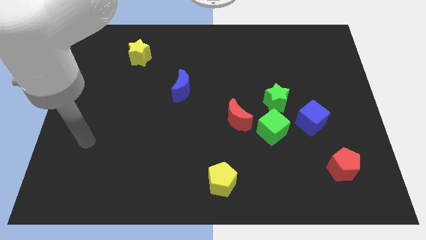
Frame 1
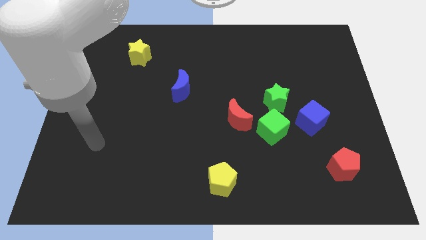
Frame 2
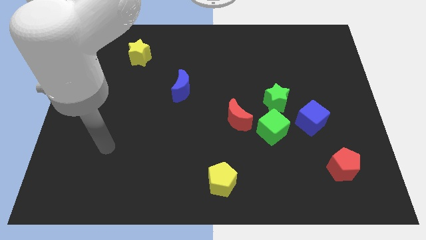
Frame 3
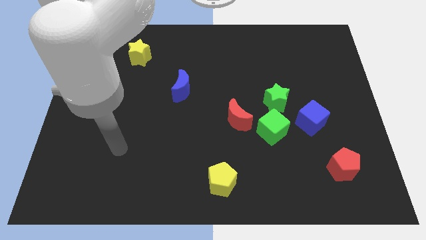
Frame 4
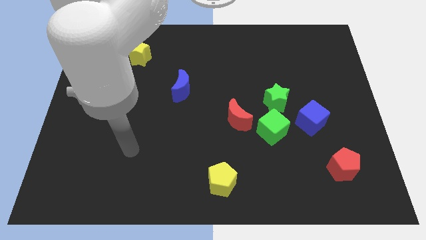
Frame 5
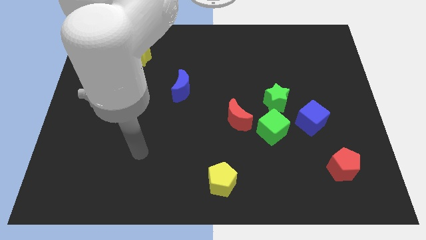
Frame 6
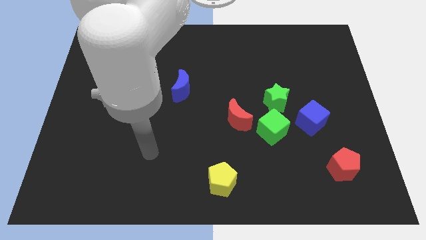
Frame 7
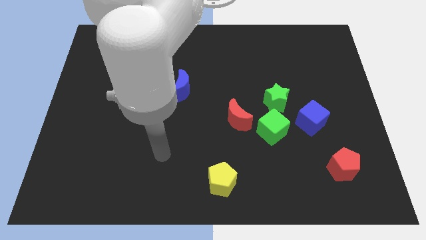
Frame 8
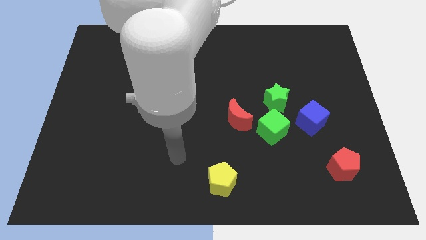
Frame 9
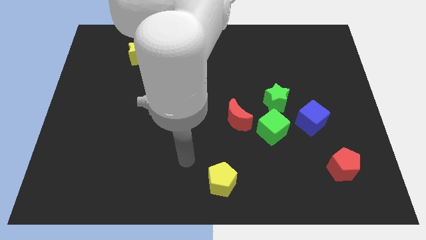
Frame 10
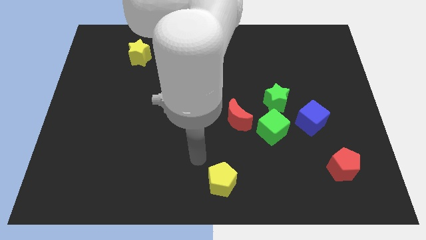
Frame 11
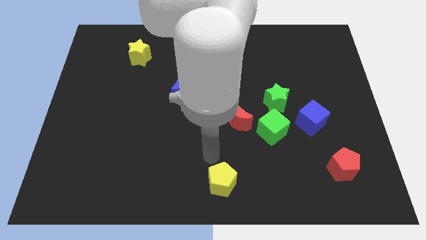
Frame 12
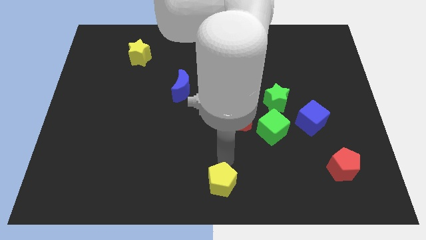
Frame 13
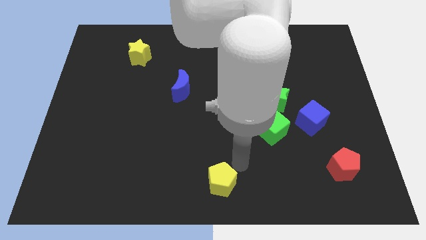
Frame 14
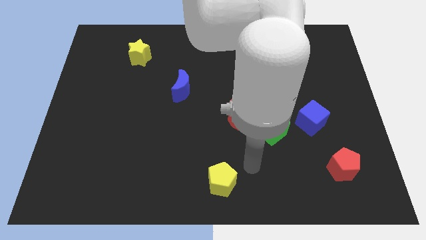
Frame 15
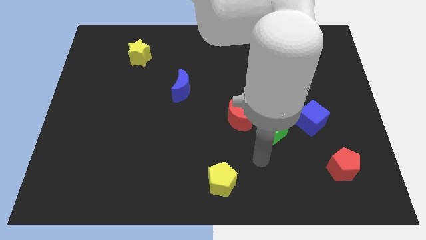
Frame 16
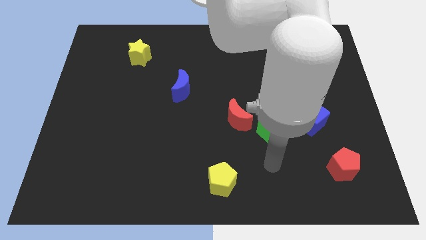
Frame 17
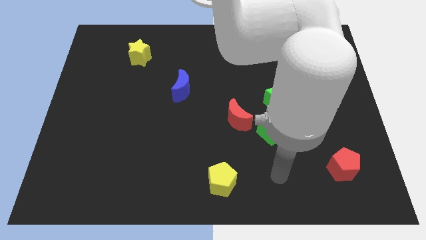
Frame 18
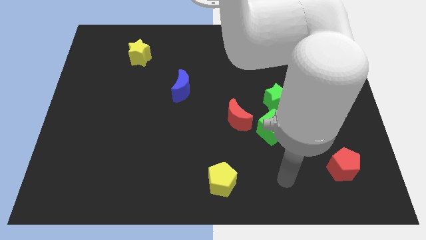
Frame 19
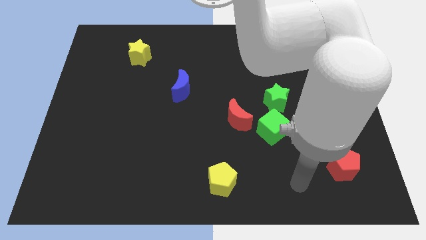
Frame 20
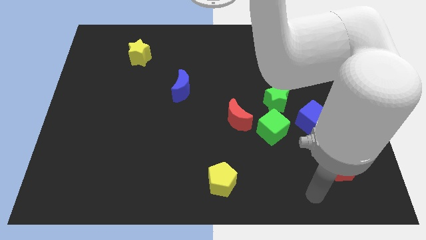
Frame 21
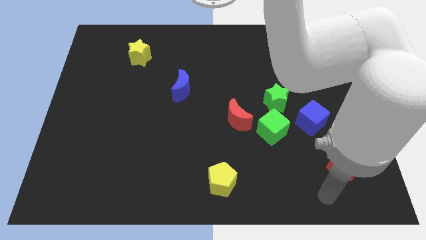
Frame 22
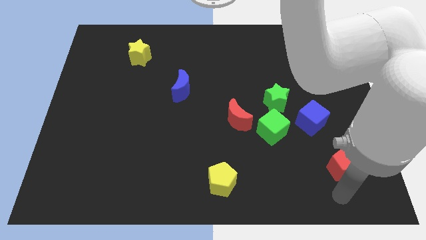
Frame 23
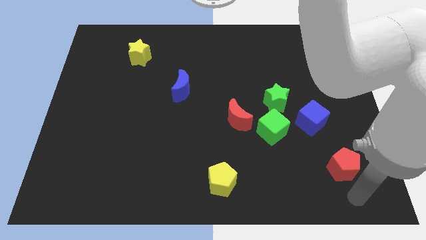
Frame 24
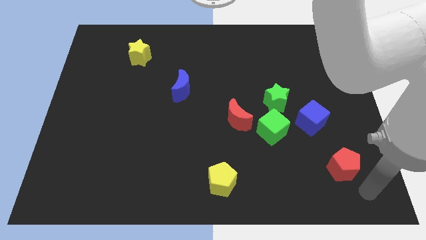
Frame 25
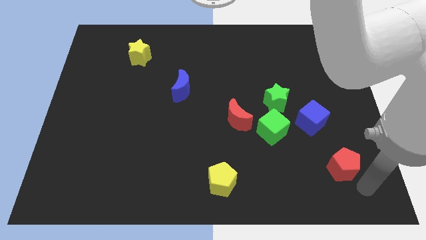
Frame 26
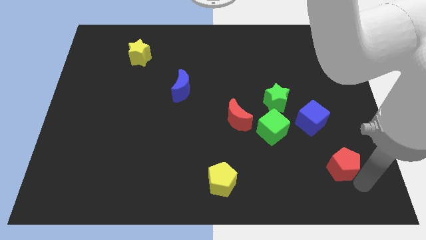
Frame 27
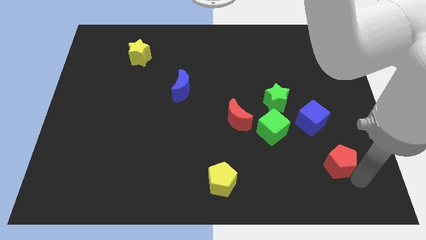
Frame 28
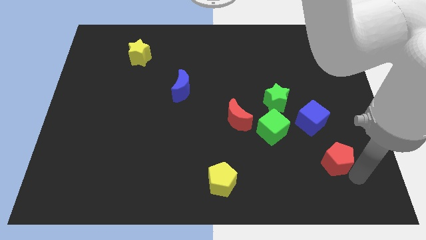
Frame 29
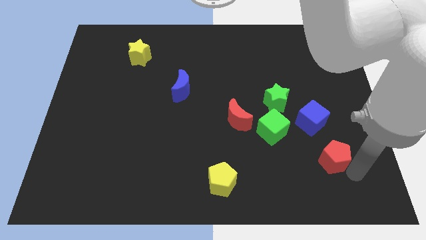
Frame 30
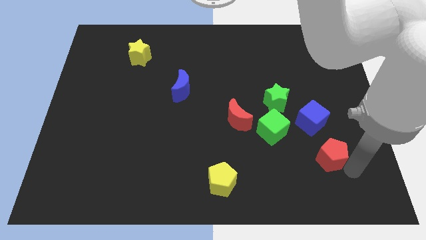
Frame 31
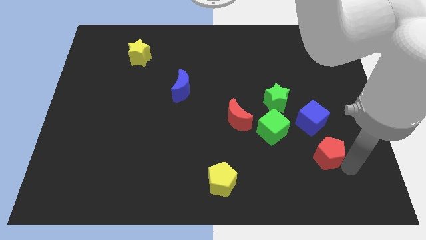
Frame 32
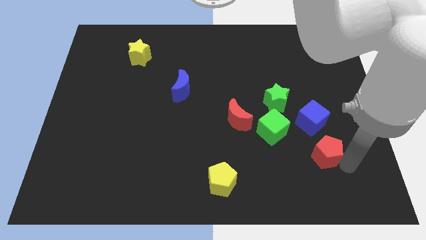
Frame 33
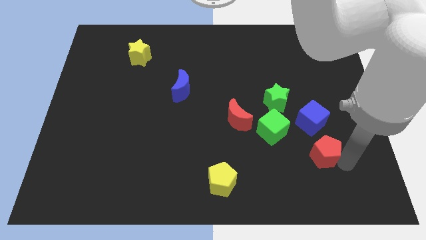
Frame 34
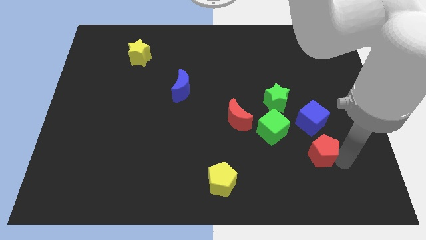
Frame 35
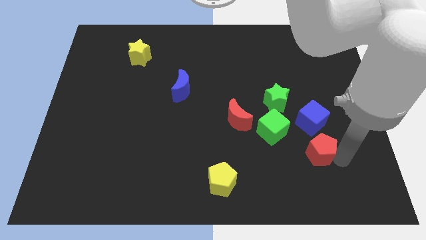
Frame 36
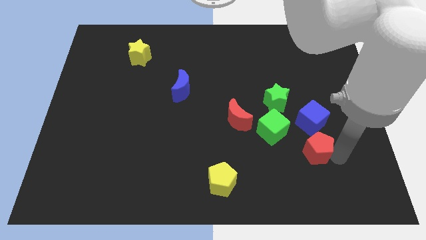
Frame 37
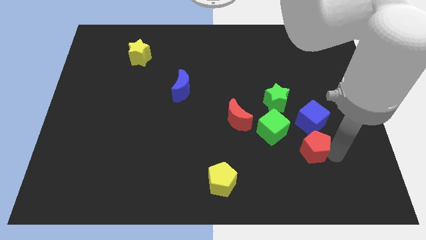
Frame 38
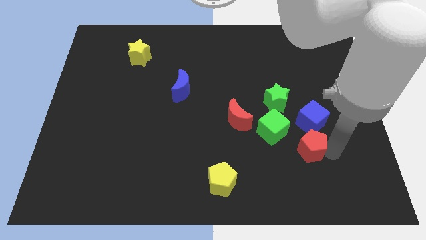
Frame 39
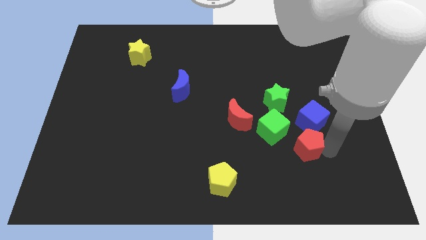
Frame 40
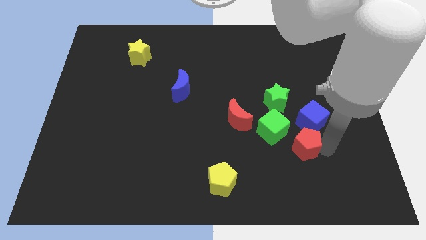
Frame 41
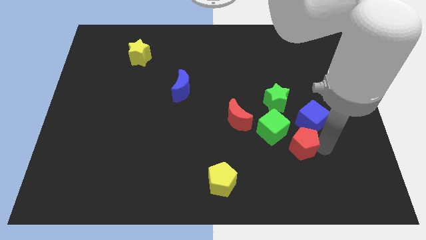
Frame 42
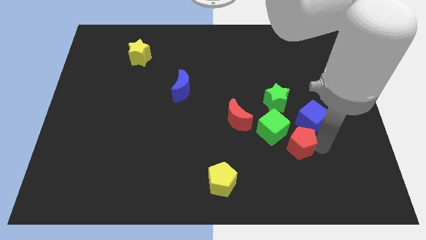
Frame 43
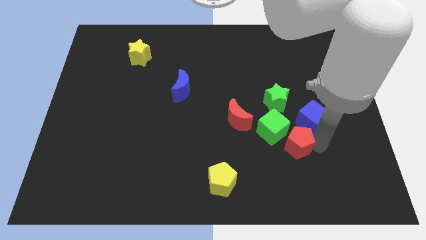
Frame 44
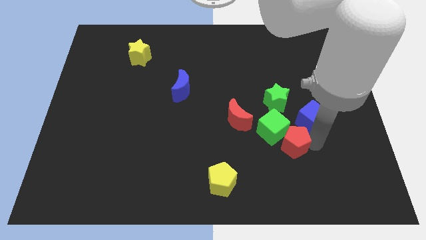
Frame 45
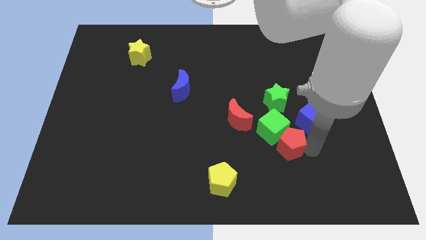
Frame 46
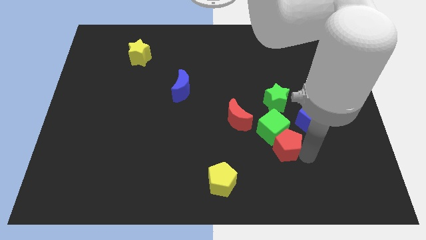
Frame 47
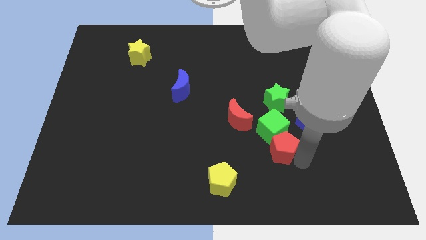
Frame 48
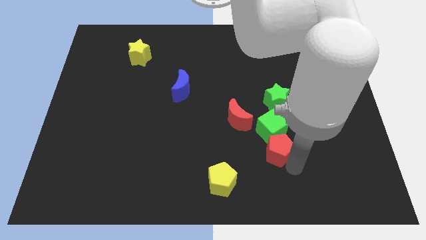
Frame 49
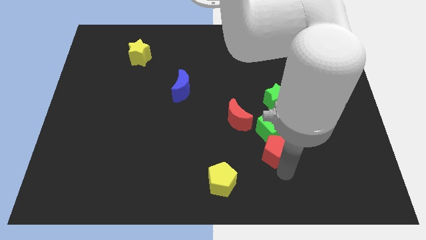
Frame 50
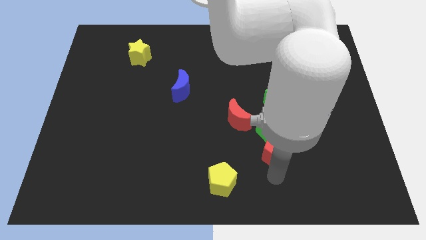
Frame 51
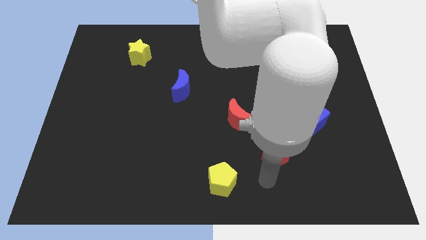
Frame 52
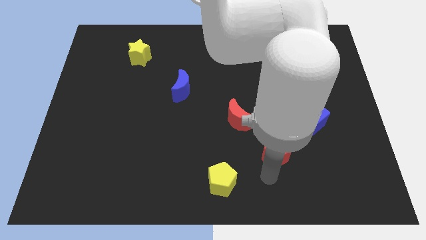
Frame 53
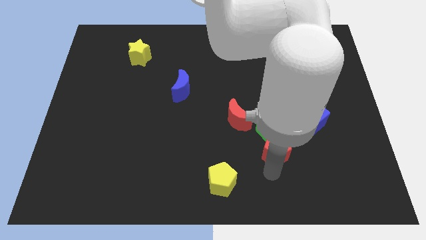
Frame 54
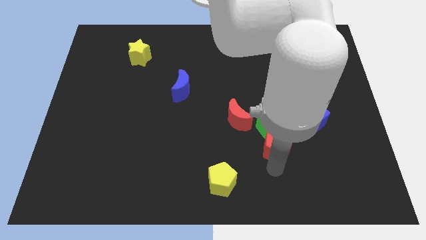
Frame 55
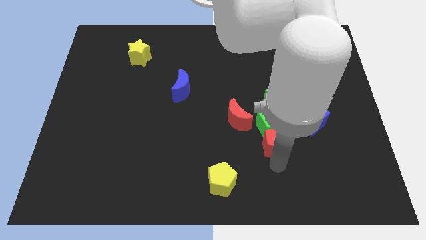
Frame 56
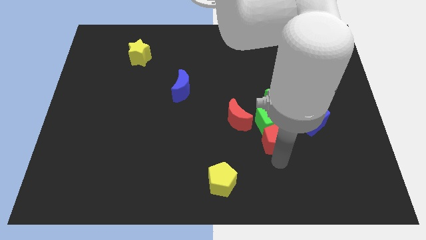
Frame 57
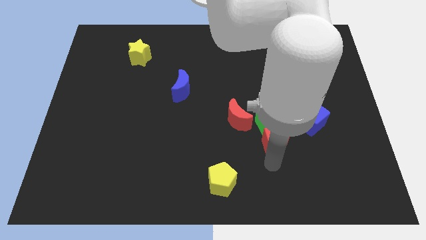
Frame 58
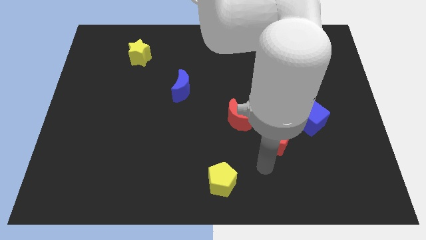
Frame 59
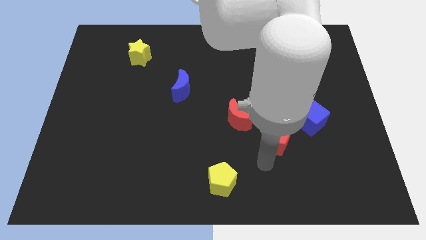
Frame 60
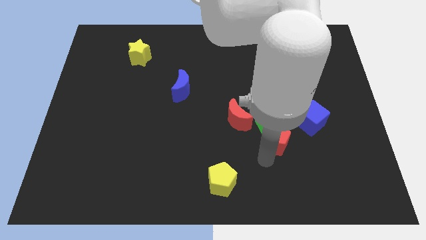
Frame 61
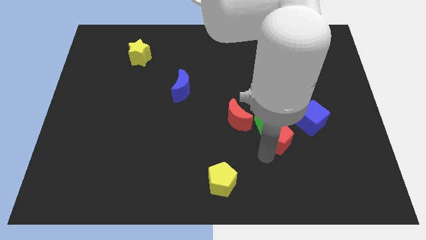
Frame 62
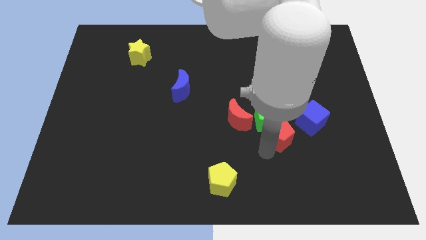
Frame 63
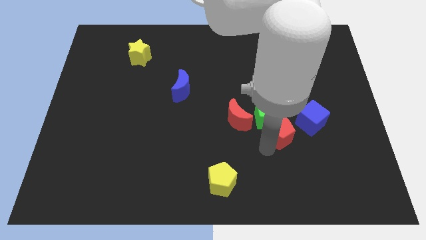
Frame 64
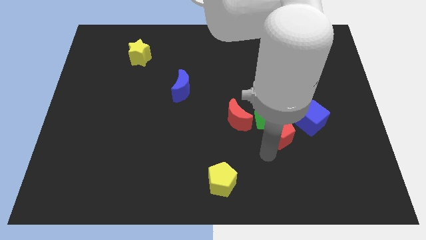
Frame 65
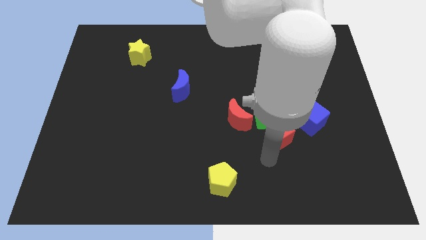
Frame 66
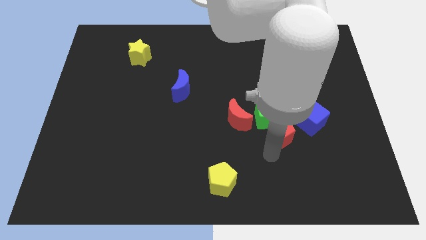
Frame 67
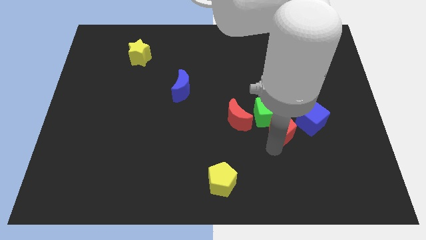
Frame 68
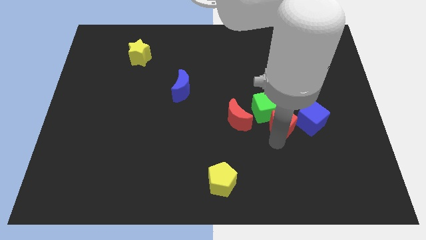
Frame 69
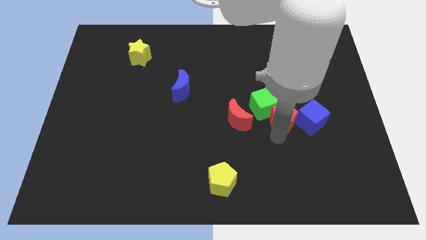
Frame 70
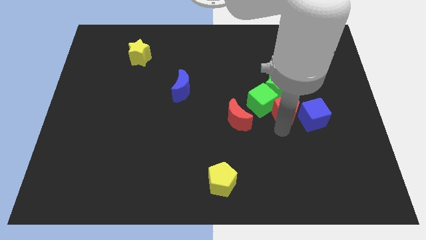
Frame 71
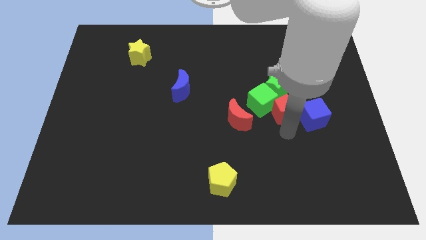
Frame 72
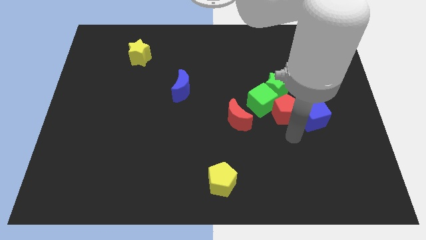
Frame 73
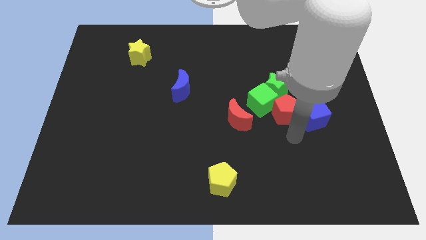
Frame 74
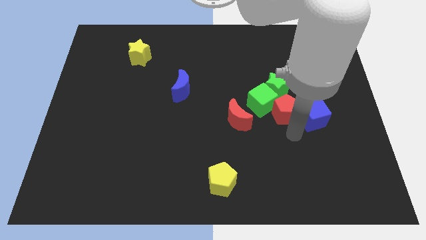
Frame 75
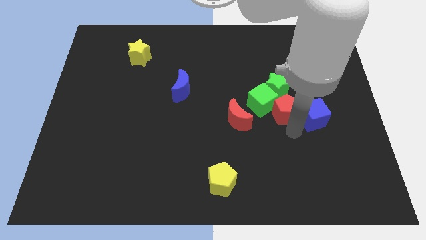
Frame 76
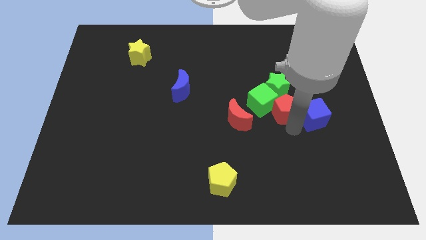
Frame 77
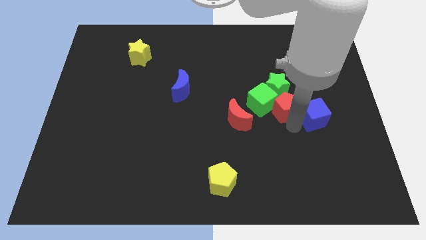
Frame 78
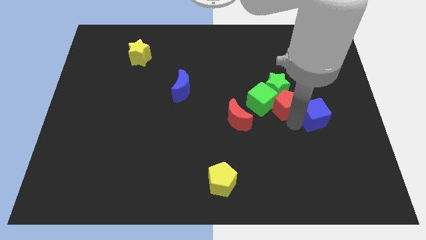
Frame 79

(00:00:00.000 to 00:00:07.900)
put the red pentagon close to the green star
